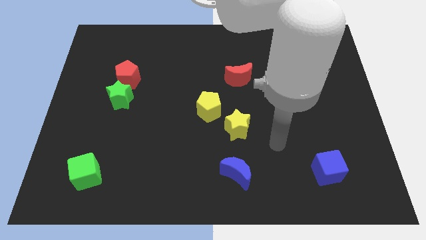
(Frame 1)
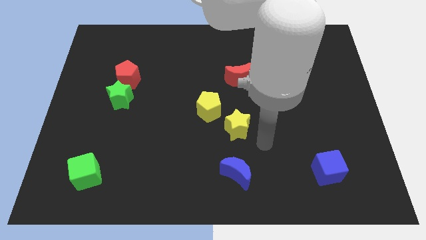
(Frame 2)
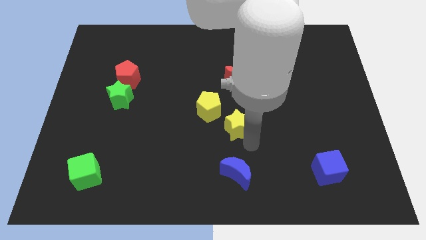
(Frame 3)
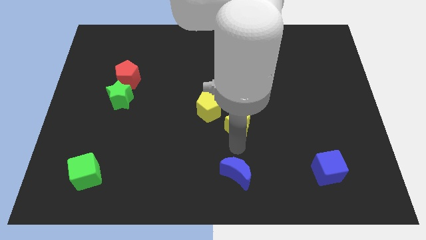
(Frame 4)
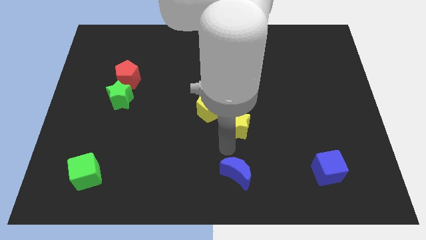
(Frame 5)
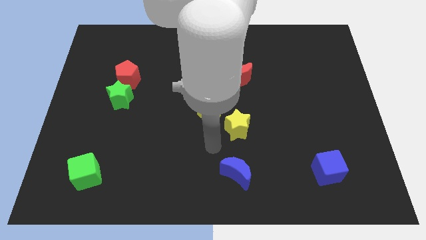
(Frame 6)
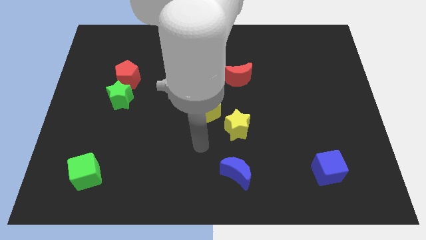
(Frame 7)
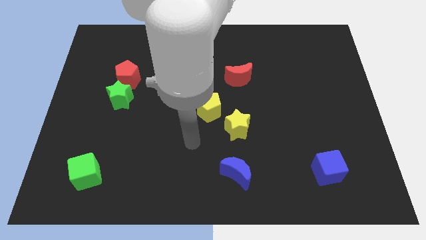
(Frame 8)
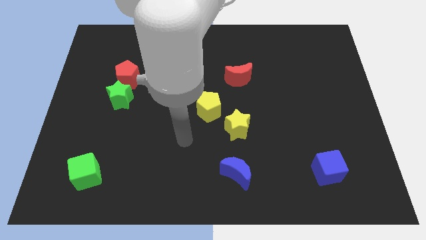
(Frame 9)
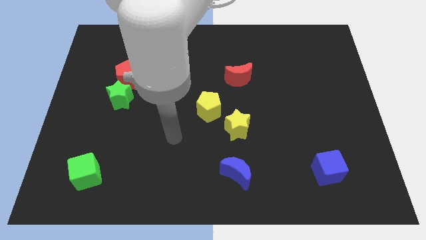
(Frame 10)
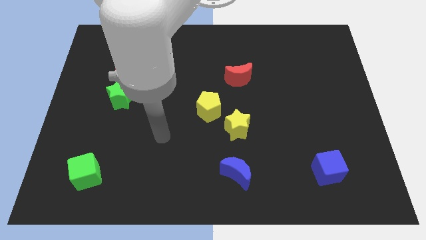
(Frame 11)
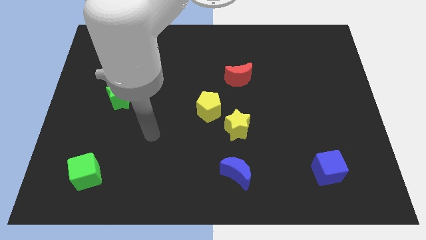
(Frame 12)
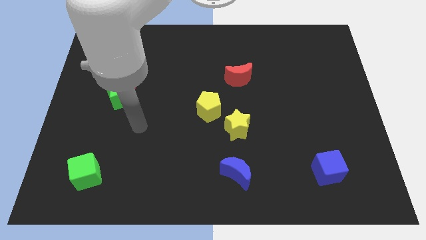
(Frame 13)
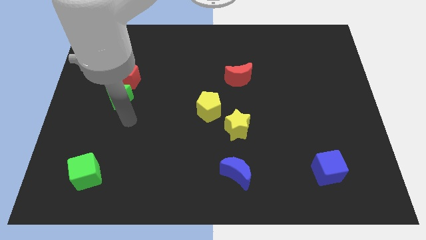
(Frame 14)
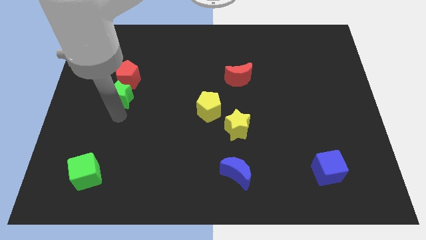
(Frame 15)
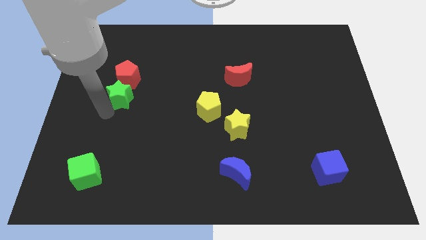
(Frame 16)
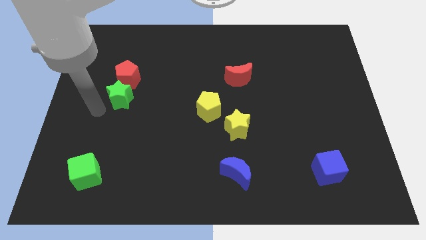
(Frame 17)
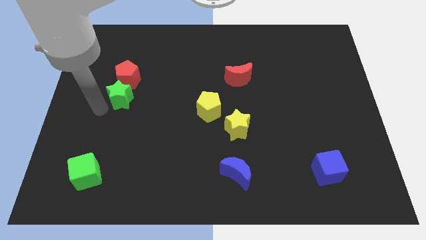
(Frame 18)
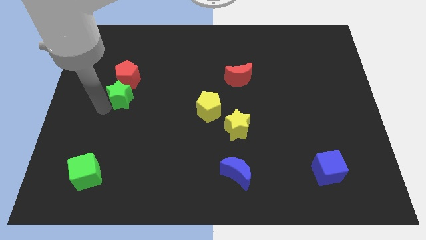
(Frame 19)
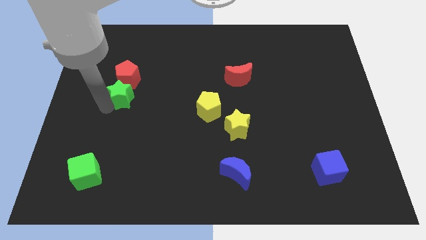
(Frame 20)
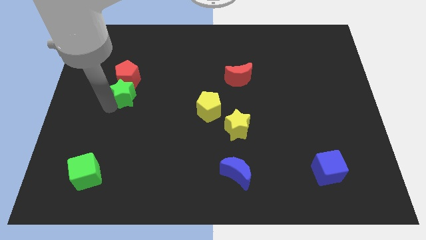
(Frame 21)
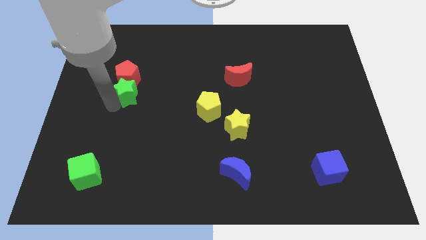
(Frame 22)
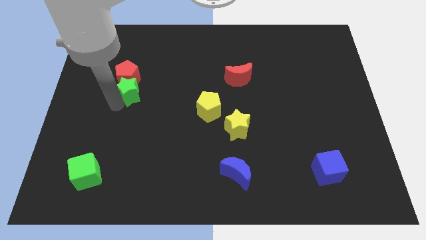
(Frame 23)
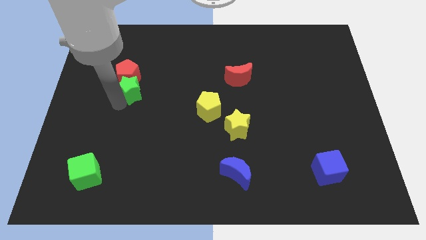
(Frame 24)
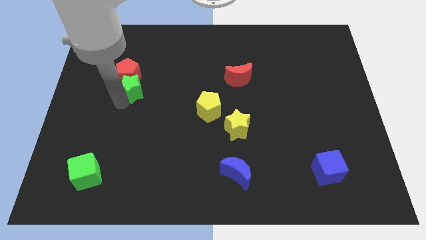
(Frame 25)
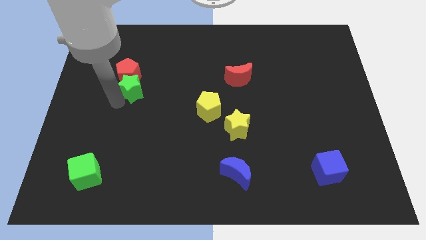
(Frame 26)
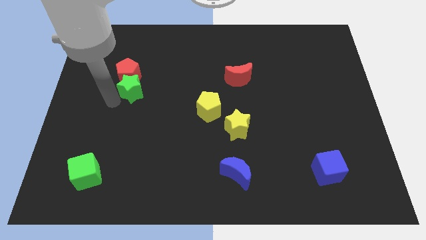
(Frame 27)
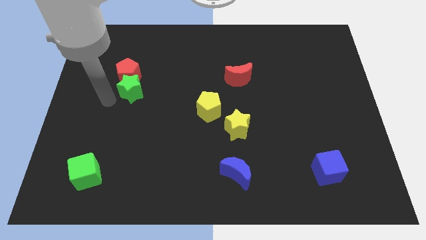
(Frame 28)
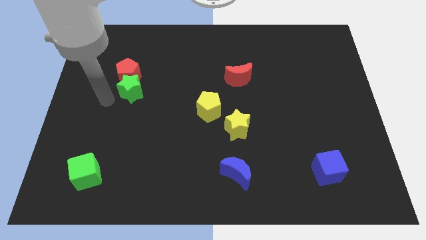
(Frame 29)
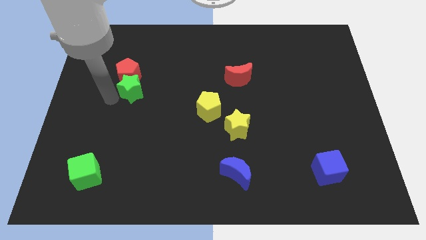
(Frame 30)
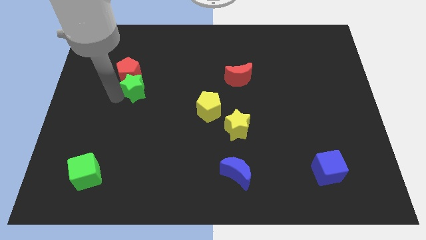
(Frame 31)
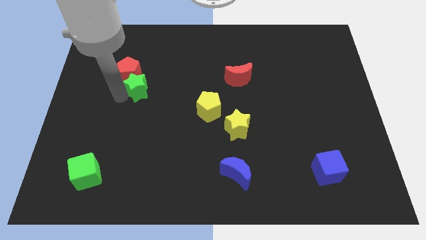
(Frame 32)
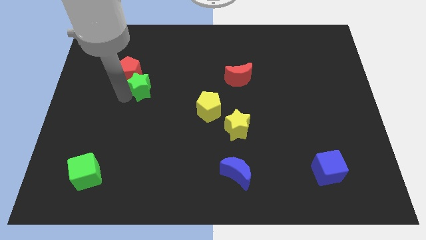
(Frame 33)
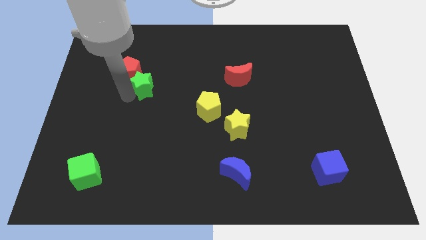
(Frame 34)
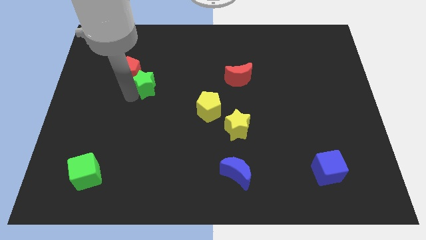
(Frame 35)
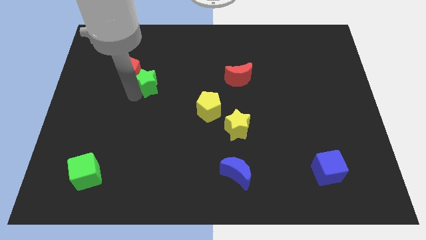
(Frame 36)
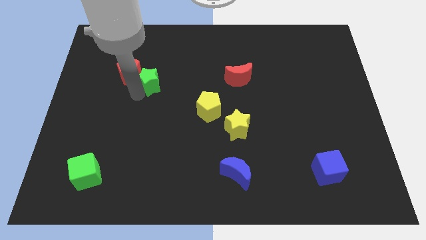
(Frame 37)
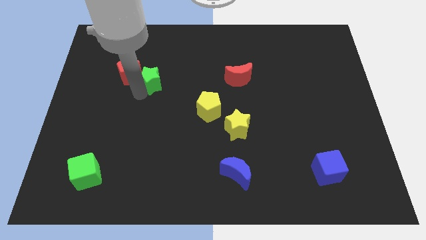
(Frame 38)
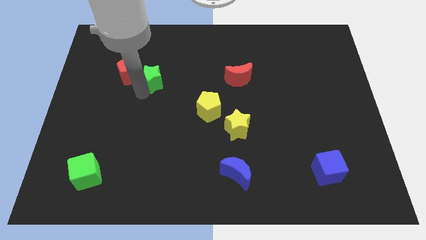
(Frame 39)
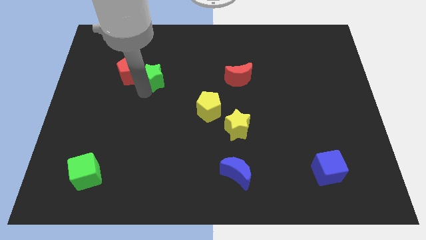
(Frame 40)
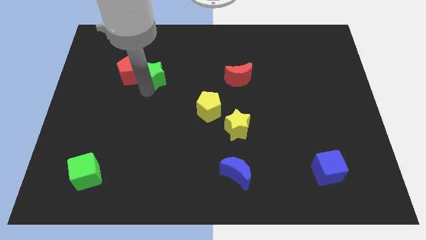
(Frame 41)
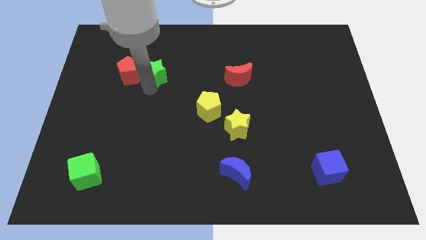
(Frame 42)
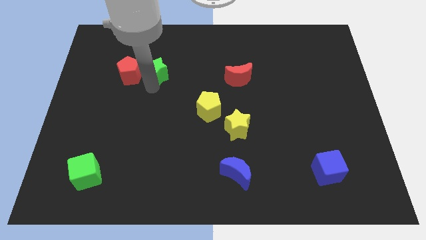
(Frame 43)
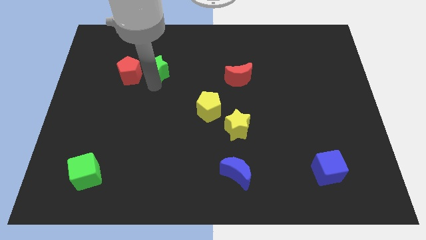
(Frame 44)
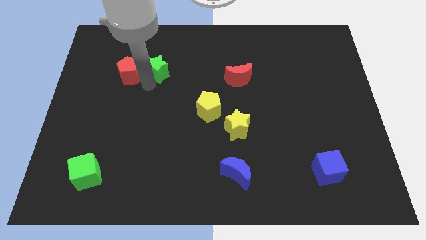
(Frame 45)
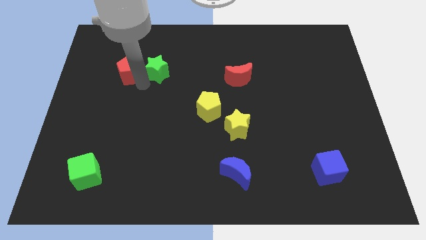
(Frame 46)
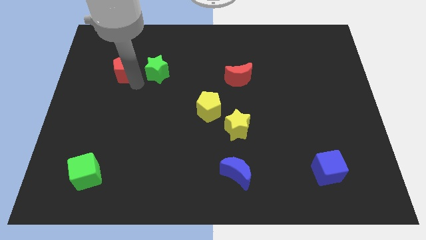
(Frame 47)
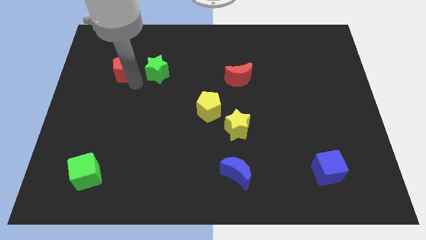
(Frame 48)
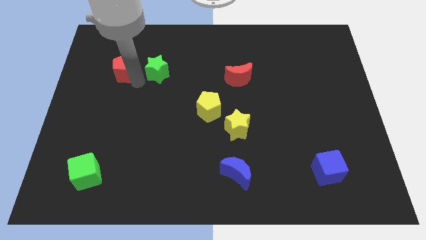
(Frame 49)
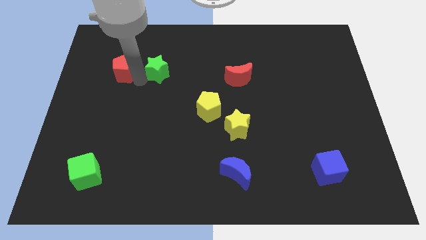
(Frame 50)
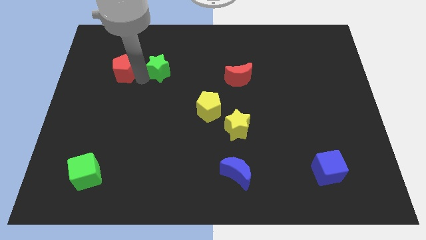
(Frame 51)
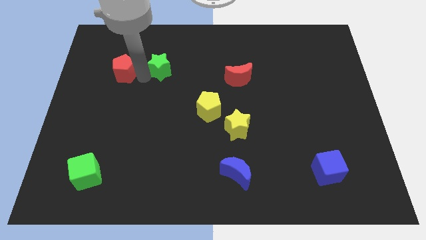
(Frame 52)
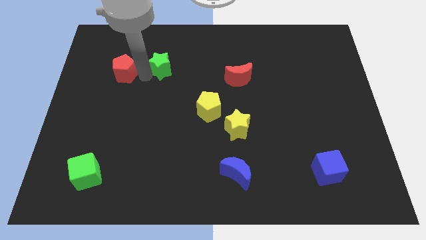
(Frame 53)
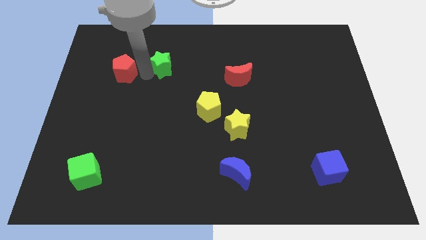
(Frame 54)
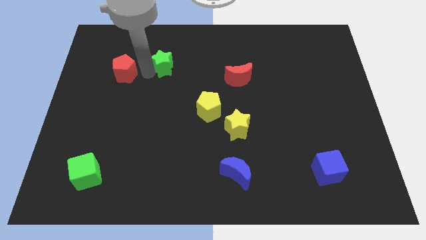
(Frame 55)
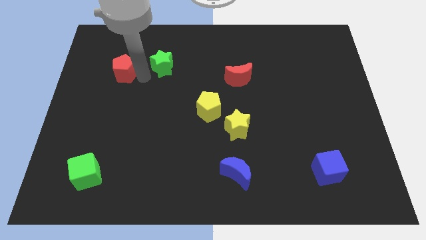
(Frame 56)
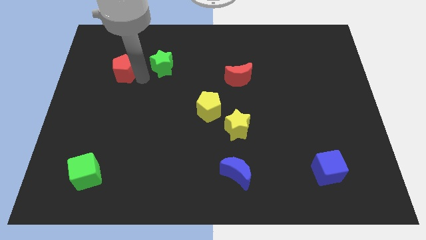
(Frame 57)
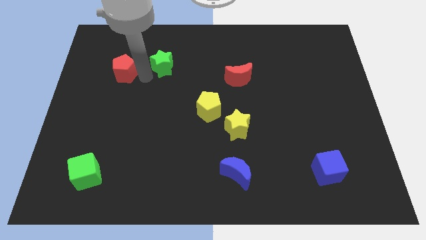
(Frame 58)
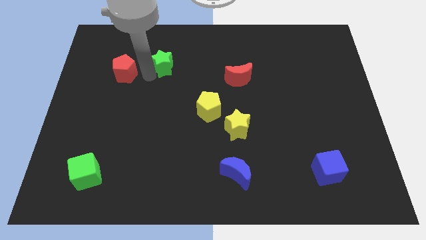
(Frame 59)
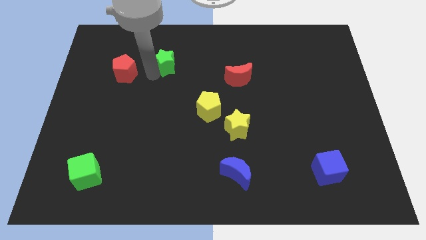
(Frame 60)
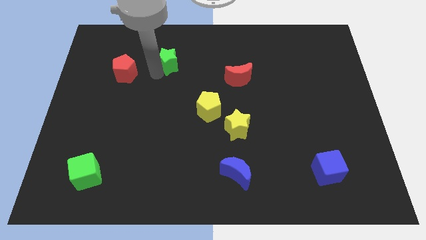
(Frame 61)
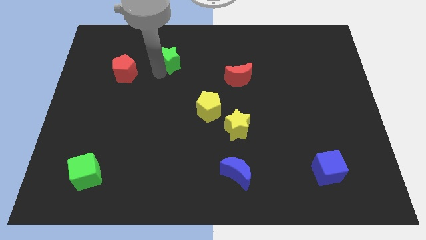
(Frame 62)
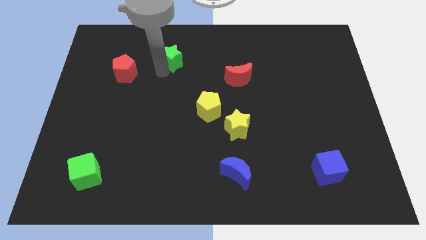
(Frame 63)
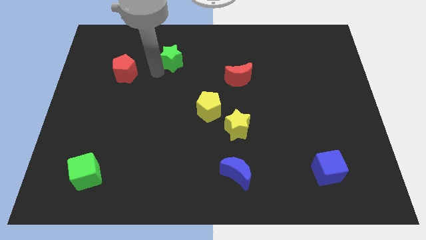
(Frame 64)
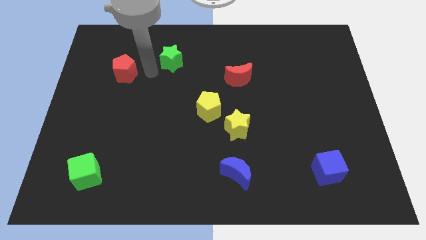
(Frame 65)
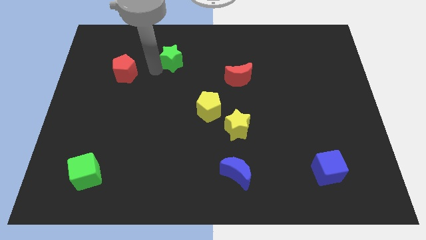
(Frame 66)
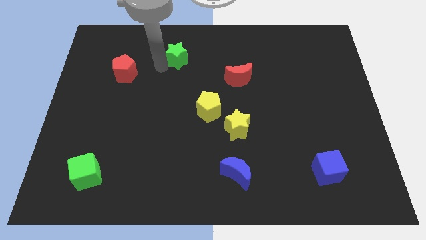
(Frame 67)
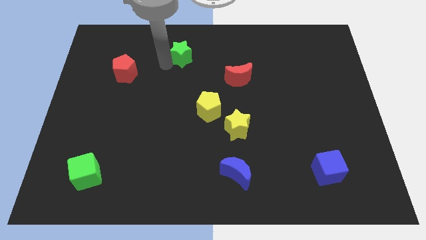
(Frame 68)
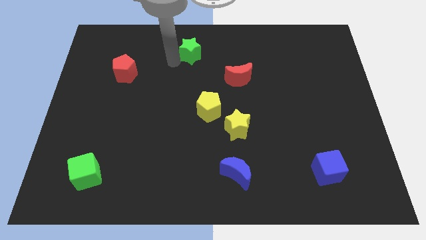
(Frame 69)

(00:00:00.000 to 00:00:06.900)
push the green star to the towards your base
